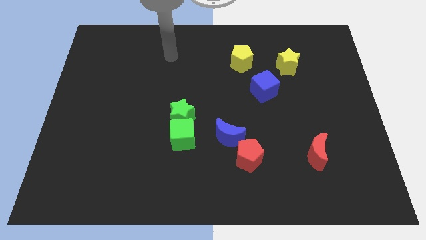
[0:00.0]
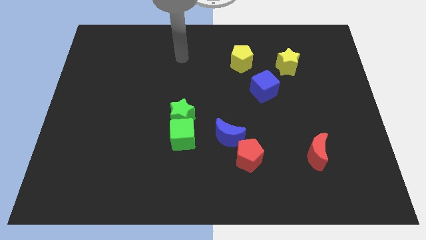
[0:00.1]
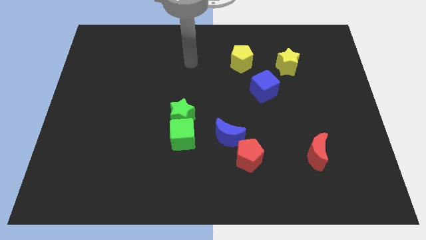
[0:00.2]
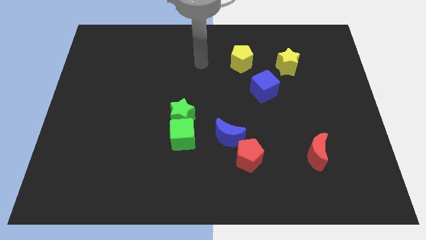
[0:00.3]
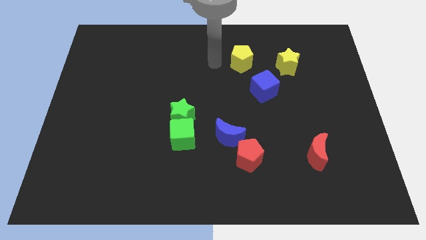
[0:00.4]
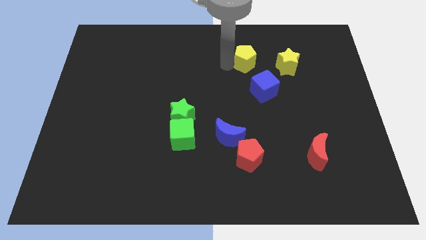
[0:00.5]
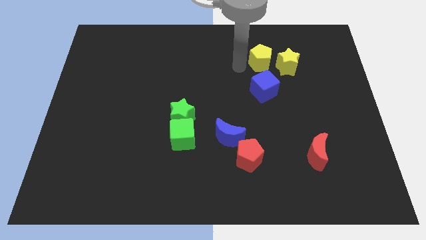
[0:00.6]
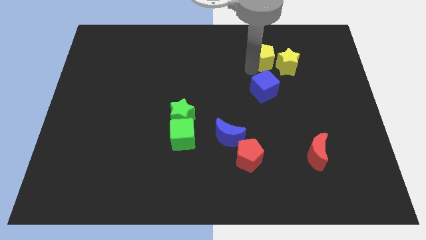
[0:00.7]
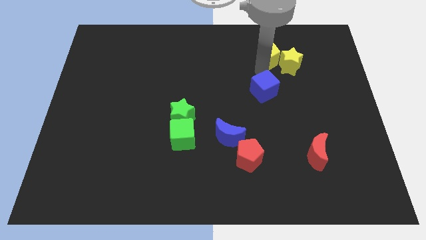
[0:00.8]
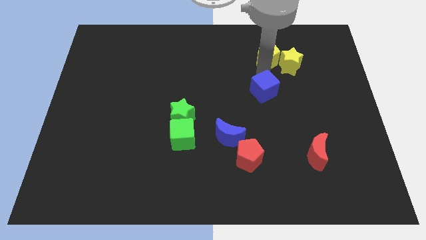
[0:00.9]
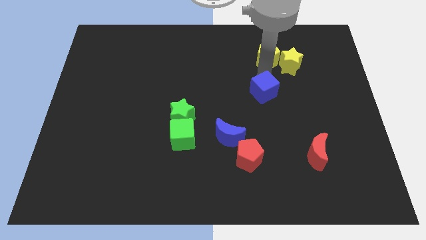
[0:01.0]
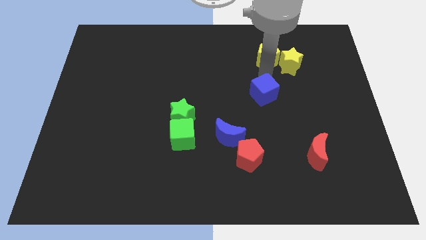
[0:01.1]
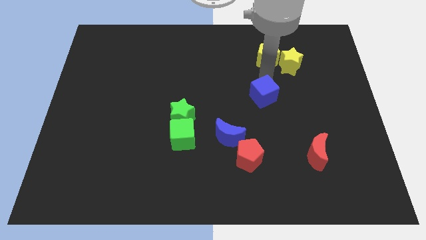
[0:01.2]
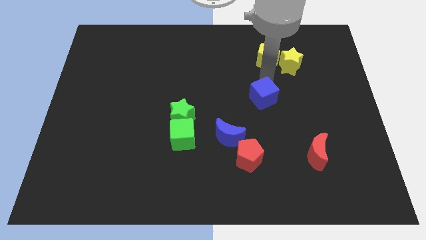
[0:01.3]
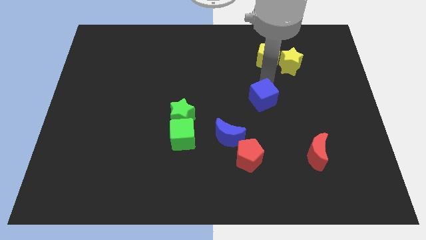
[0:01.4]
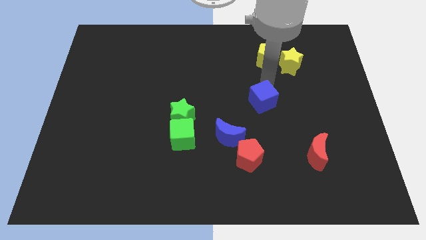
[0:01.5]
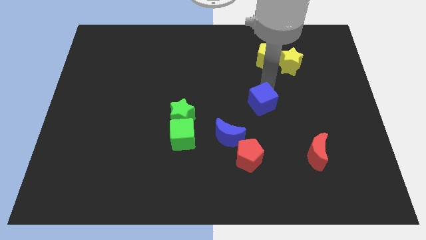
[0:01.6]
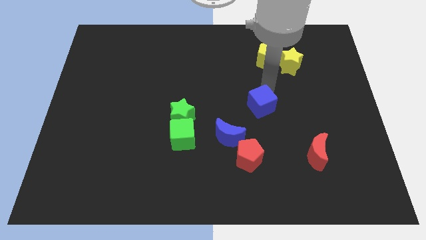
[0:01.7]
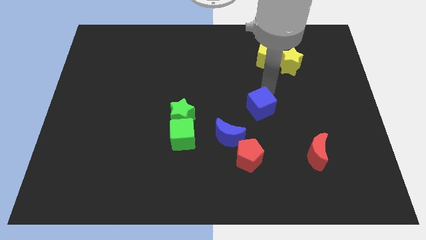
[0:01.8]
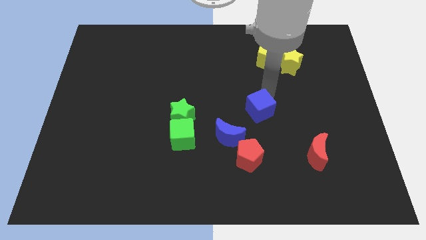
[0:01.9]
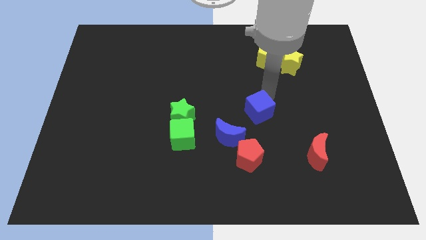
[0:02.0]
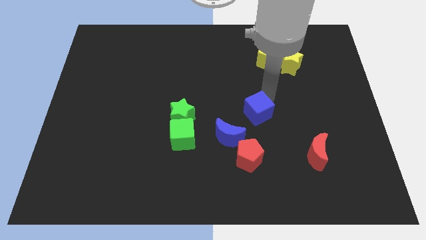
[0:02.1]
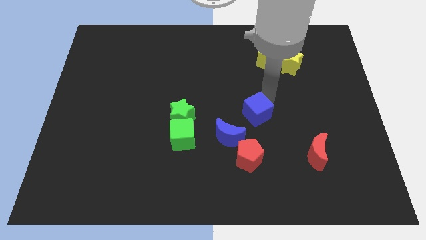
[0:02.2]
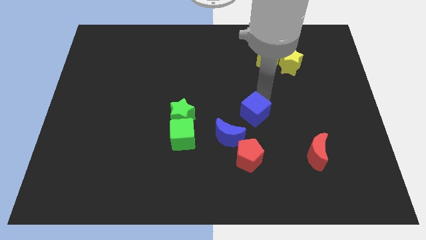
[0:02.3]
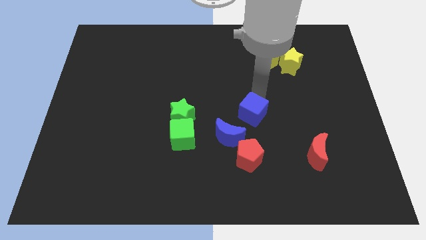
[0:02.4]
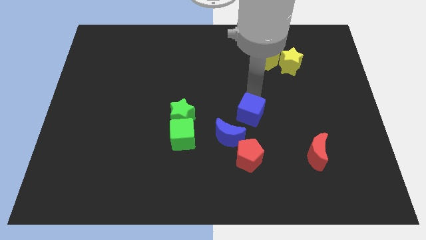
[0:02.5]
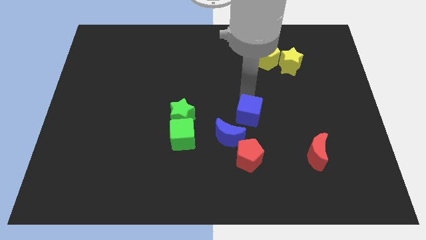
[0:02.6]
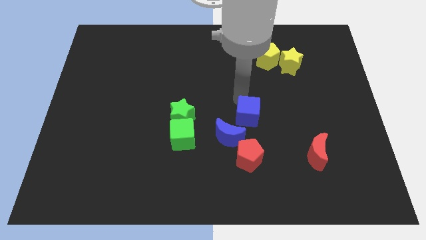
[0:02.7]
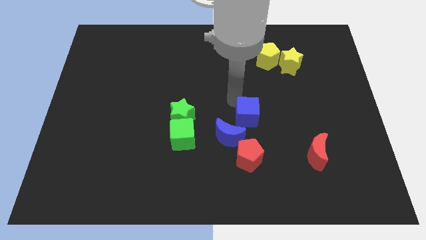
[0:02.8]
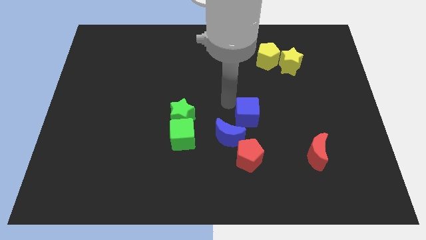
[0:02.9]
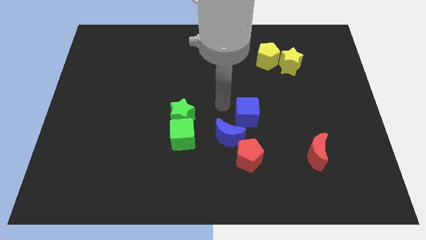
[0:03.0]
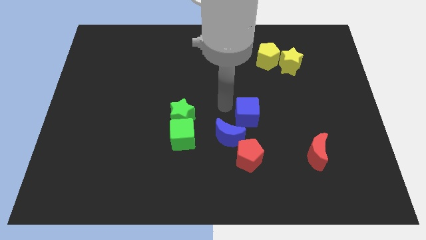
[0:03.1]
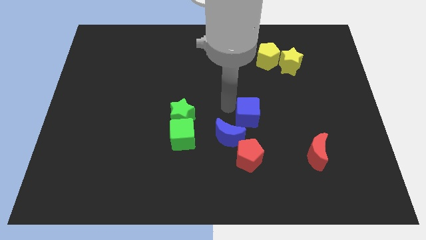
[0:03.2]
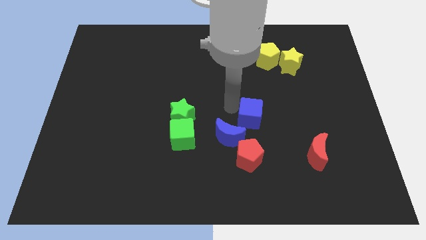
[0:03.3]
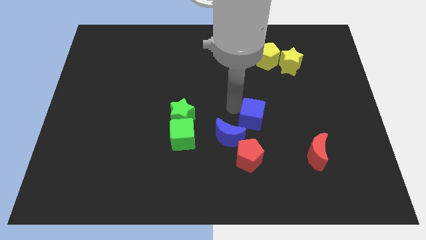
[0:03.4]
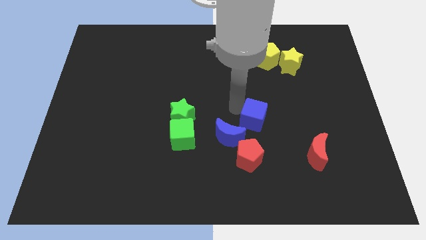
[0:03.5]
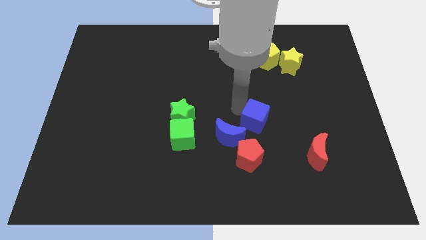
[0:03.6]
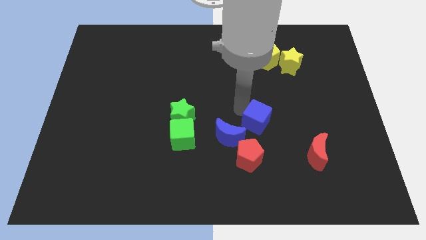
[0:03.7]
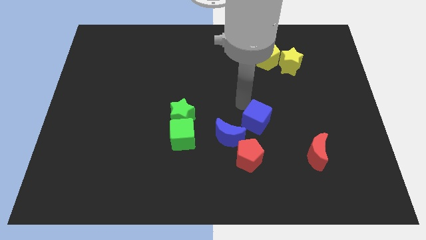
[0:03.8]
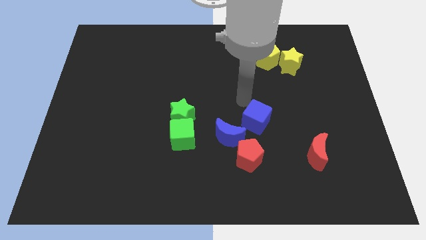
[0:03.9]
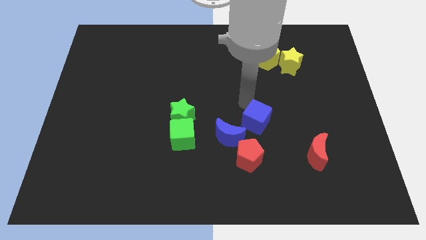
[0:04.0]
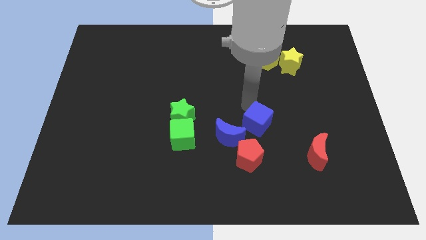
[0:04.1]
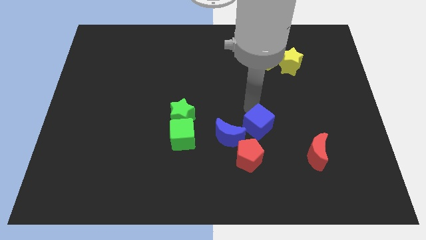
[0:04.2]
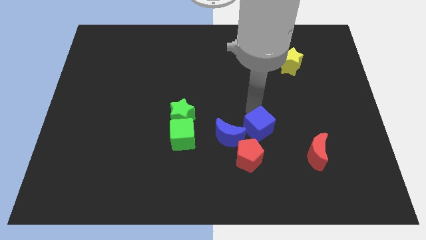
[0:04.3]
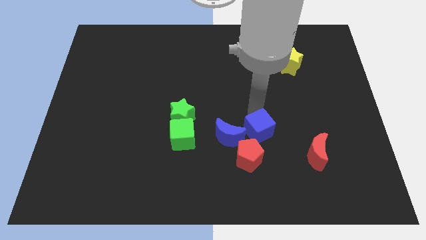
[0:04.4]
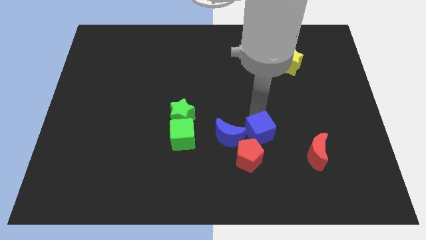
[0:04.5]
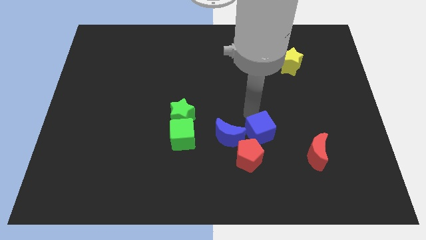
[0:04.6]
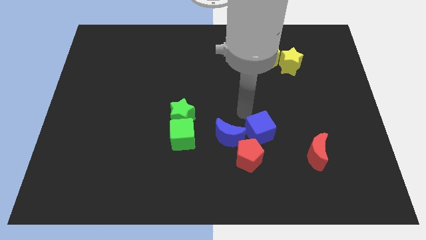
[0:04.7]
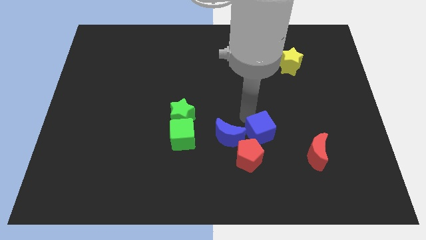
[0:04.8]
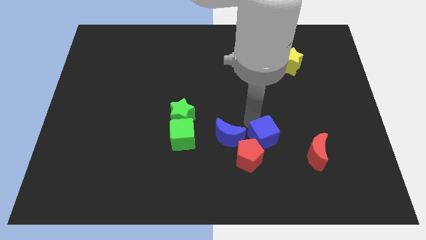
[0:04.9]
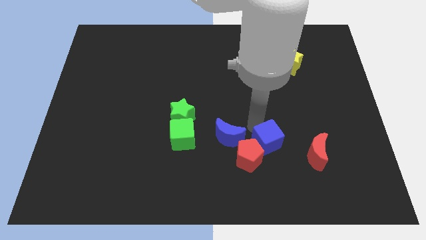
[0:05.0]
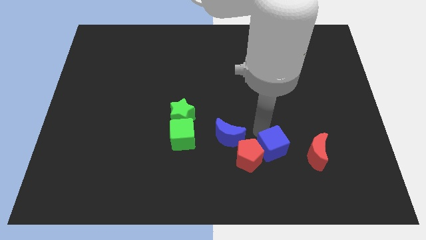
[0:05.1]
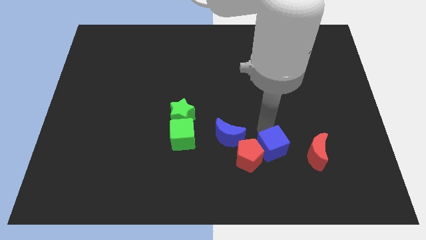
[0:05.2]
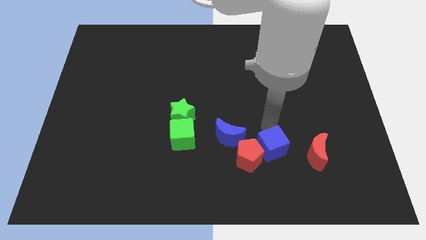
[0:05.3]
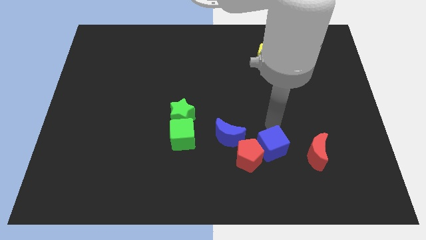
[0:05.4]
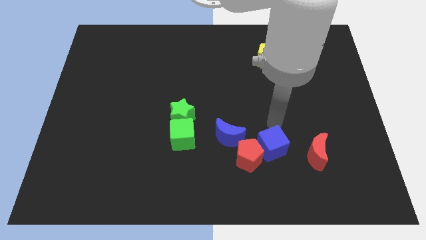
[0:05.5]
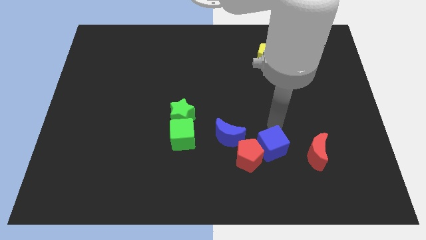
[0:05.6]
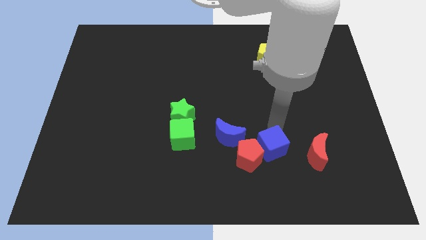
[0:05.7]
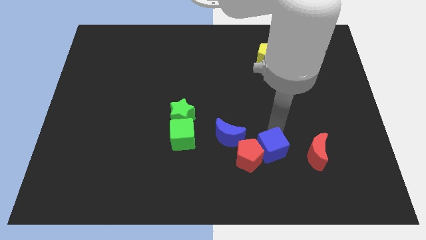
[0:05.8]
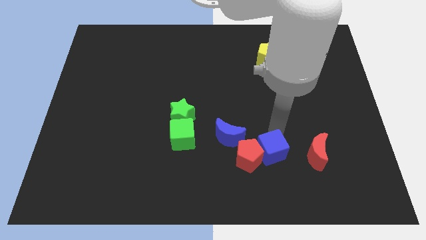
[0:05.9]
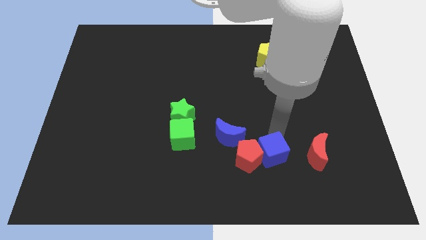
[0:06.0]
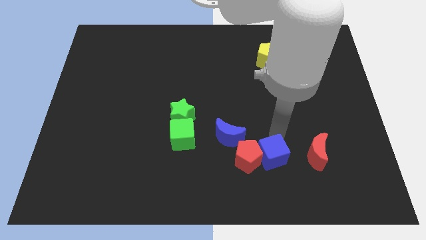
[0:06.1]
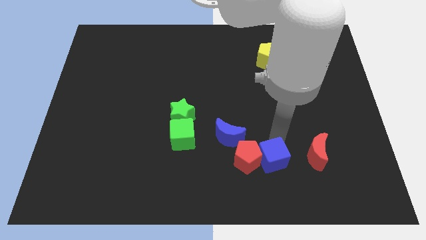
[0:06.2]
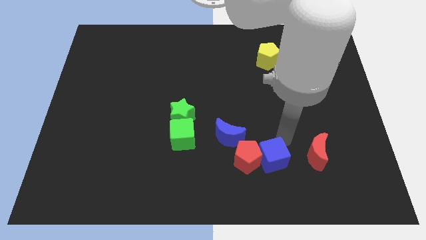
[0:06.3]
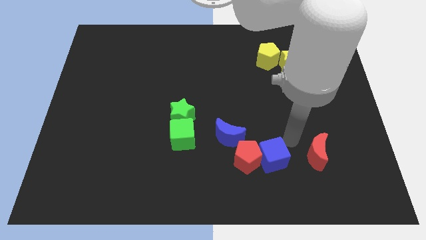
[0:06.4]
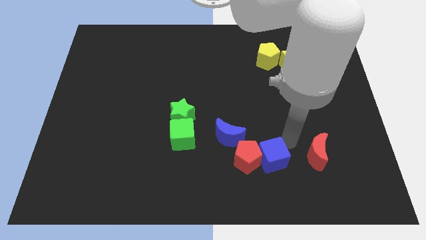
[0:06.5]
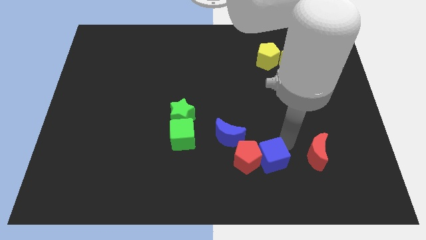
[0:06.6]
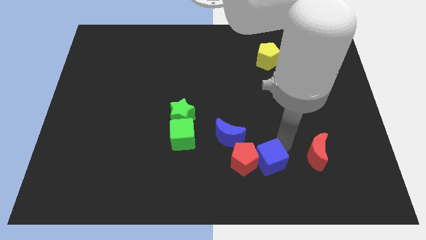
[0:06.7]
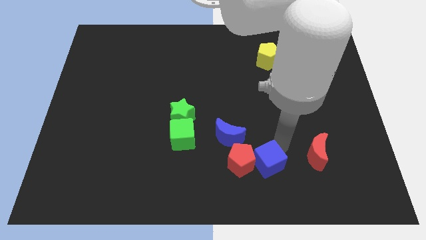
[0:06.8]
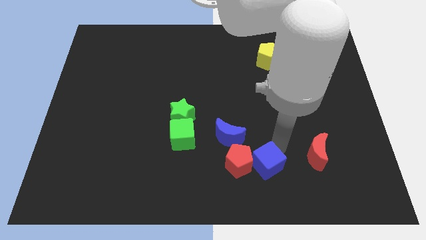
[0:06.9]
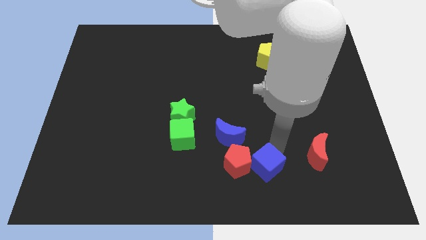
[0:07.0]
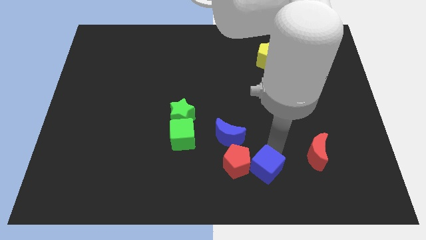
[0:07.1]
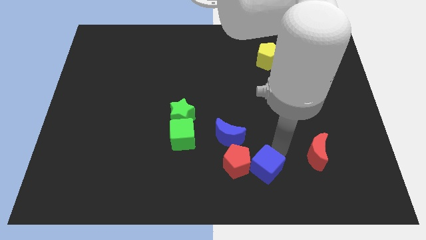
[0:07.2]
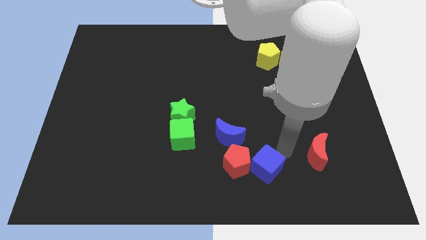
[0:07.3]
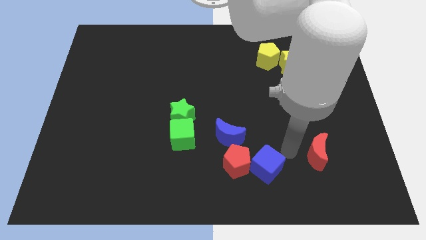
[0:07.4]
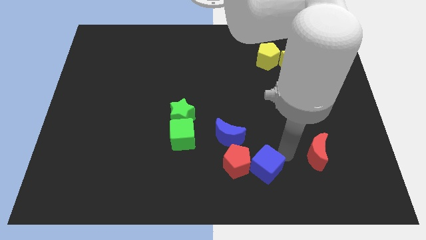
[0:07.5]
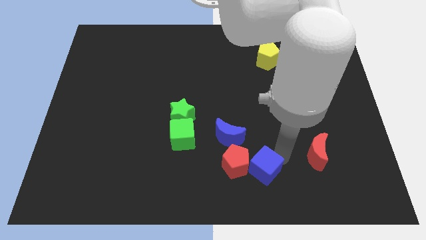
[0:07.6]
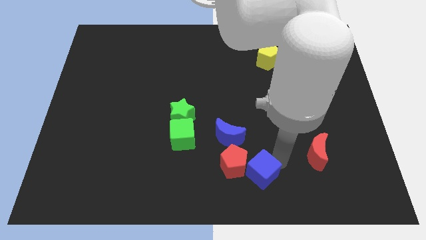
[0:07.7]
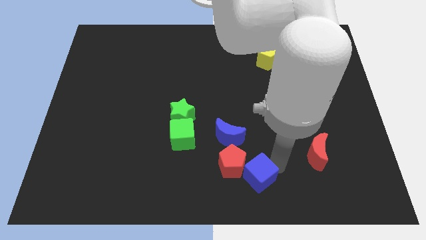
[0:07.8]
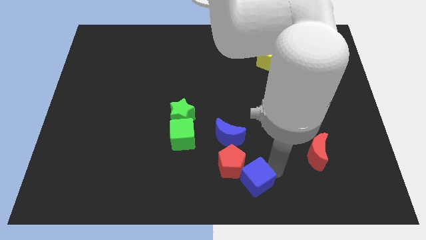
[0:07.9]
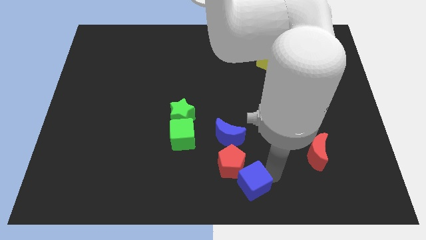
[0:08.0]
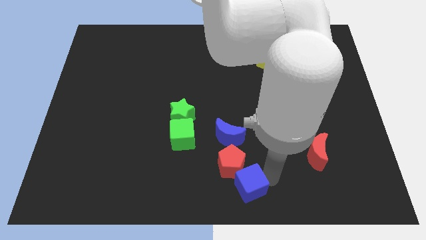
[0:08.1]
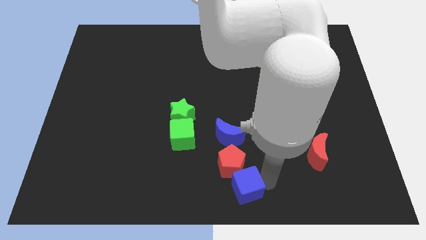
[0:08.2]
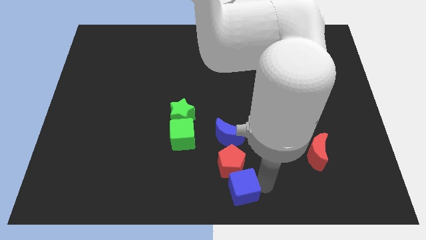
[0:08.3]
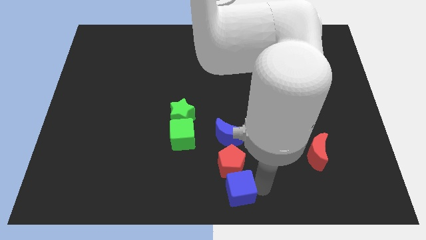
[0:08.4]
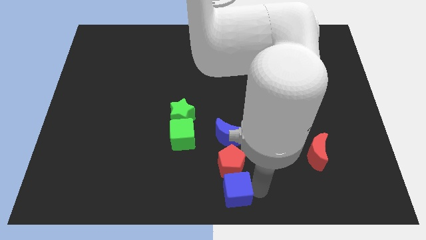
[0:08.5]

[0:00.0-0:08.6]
slide the blue cube to the bottom left side of the red pentagon
